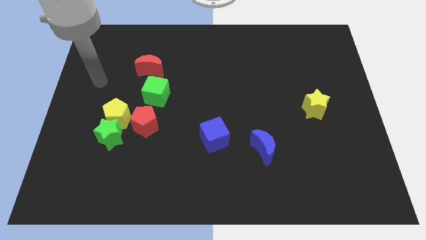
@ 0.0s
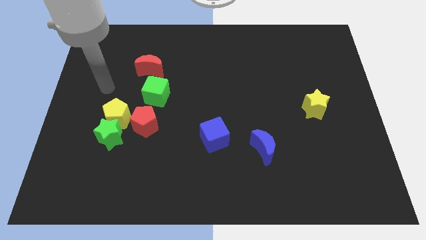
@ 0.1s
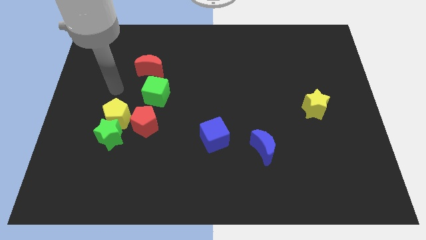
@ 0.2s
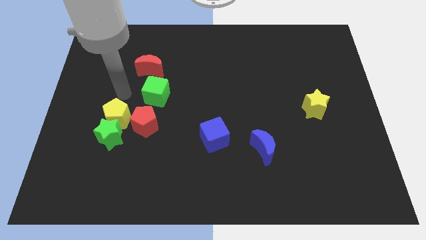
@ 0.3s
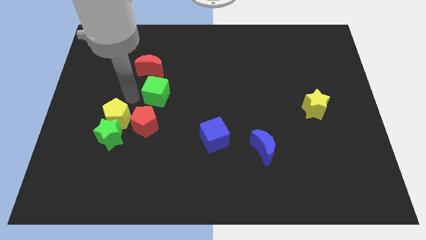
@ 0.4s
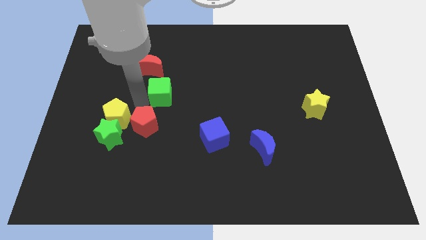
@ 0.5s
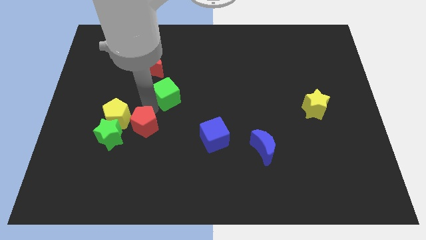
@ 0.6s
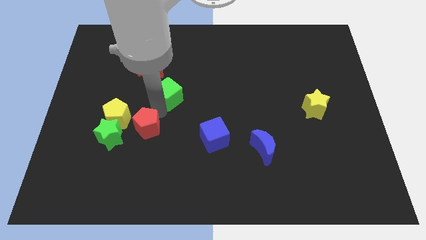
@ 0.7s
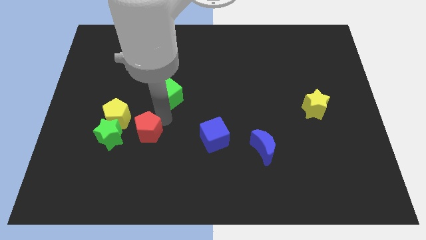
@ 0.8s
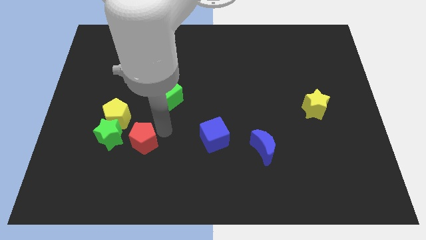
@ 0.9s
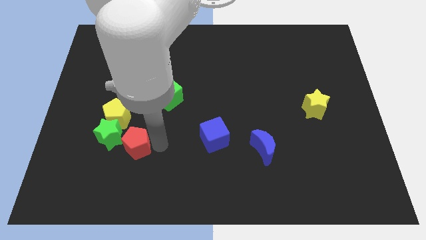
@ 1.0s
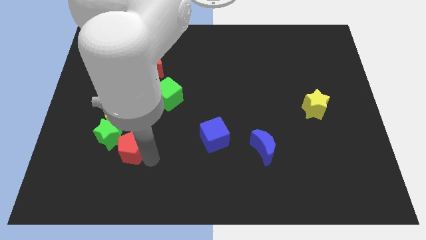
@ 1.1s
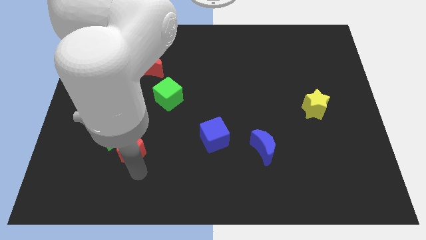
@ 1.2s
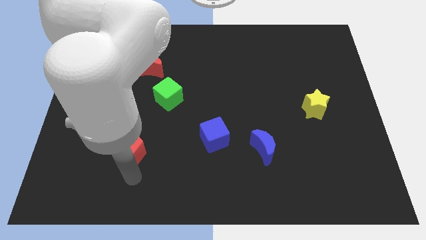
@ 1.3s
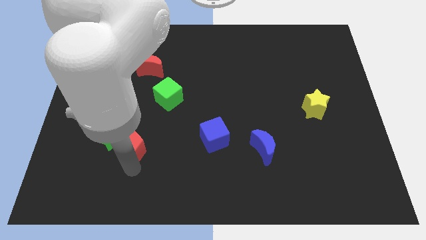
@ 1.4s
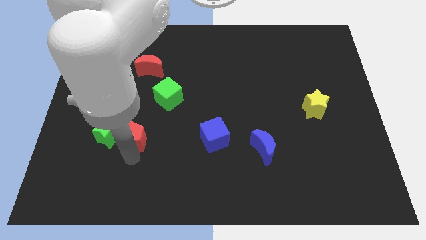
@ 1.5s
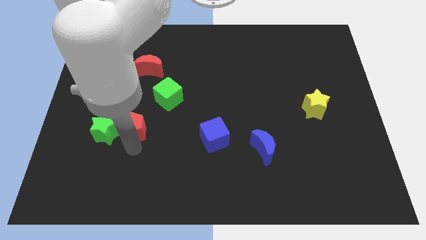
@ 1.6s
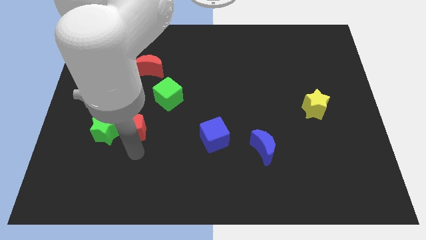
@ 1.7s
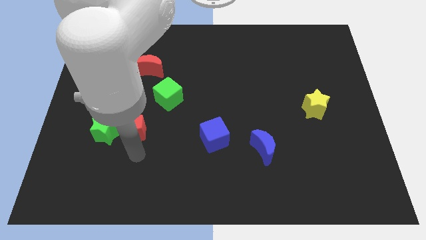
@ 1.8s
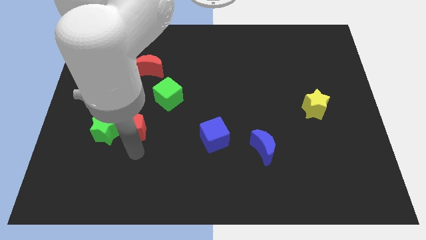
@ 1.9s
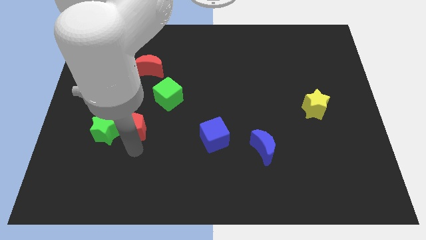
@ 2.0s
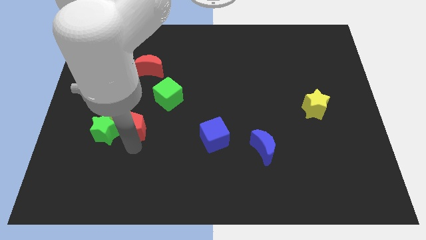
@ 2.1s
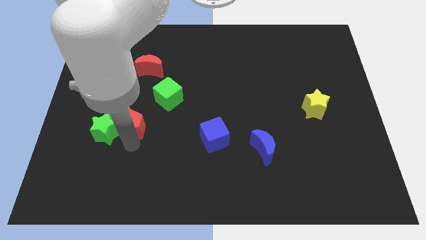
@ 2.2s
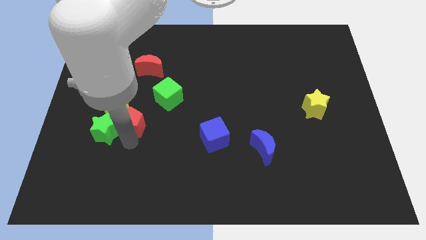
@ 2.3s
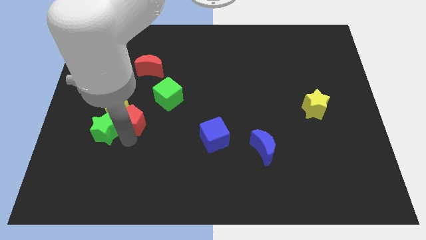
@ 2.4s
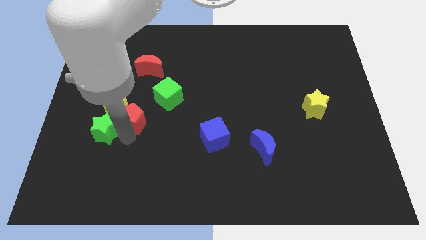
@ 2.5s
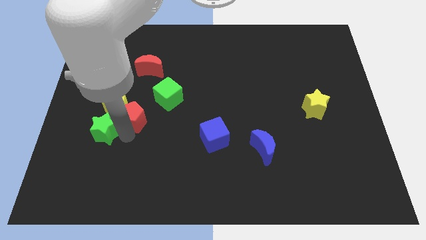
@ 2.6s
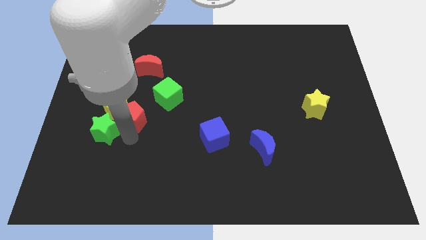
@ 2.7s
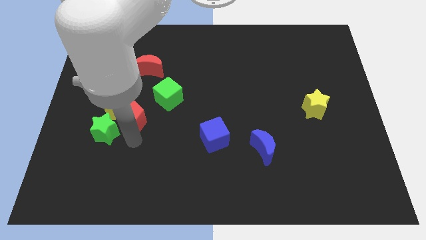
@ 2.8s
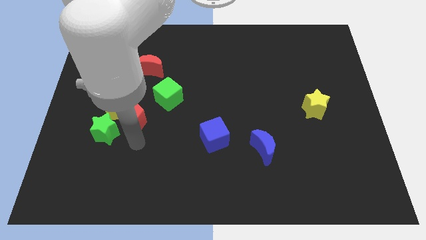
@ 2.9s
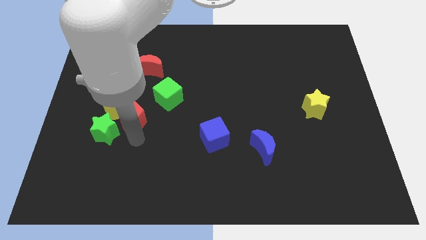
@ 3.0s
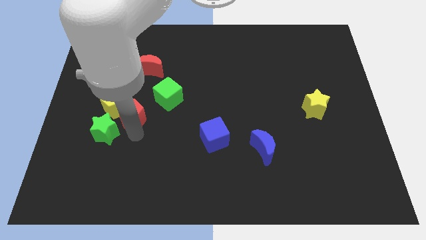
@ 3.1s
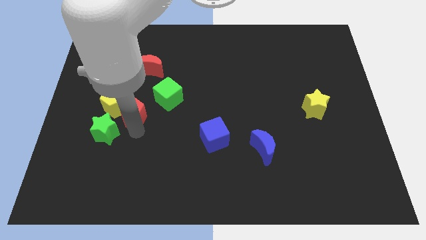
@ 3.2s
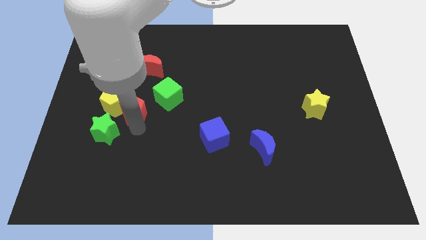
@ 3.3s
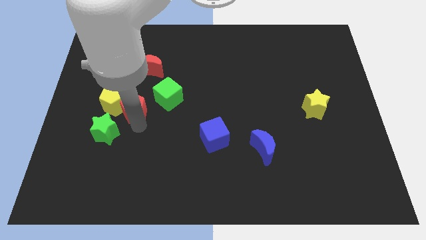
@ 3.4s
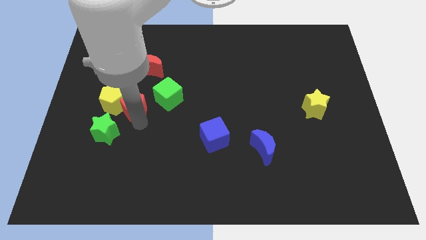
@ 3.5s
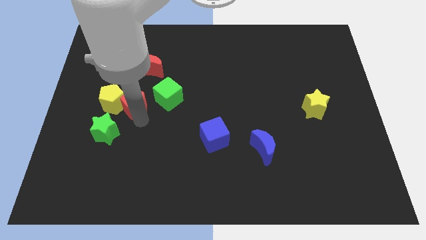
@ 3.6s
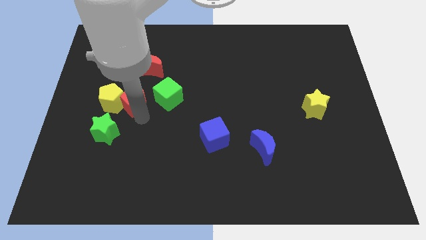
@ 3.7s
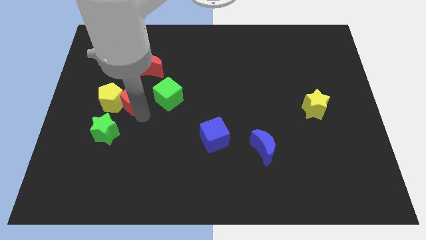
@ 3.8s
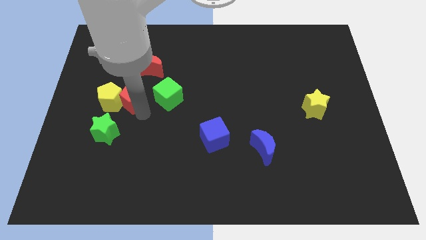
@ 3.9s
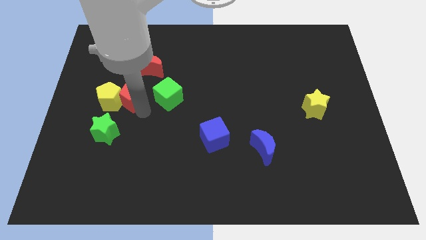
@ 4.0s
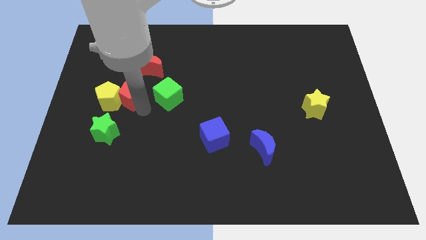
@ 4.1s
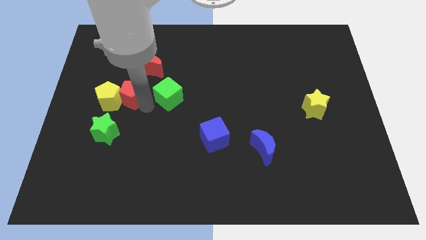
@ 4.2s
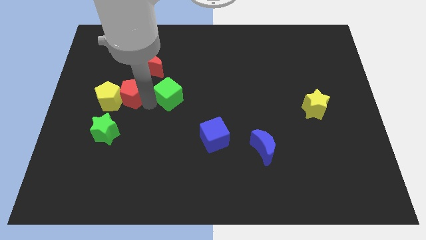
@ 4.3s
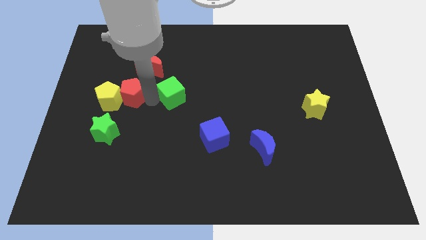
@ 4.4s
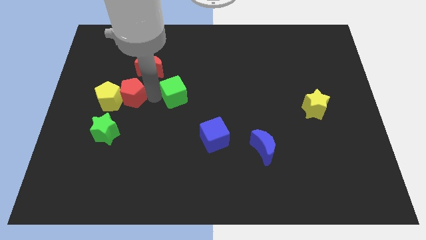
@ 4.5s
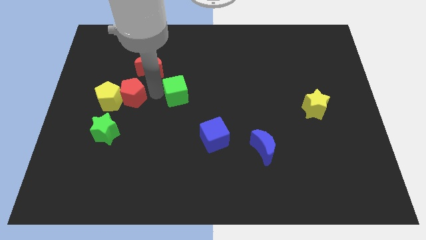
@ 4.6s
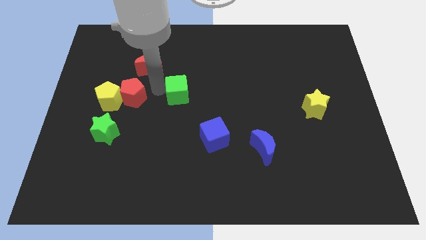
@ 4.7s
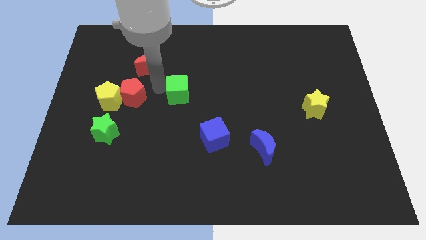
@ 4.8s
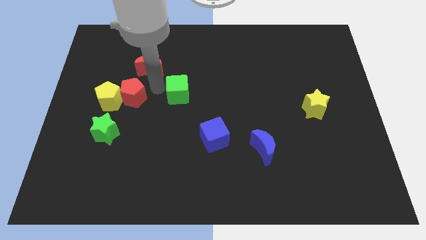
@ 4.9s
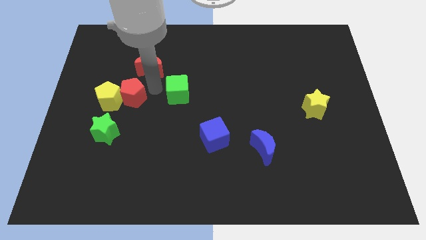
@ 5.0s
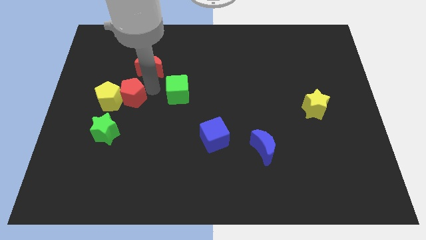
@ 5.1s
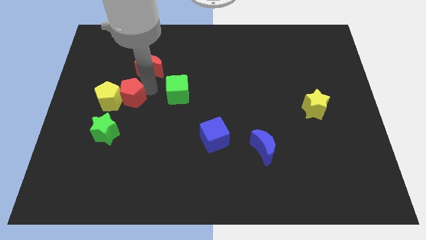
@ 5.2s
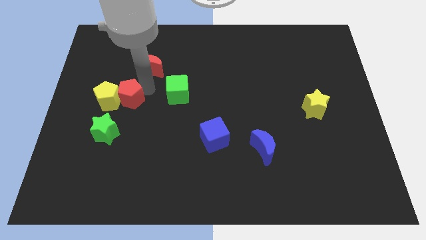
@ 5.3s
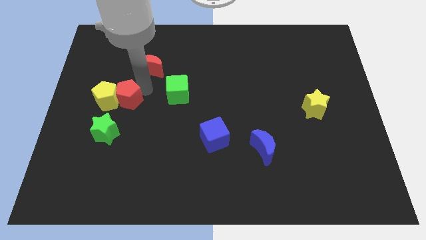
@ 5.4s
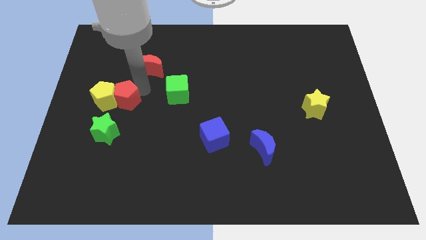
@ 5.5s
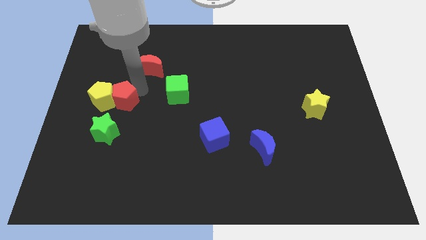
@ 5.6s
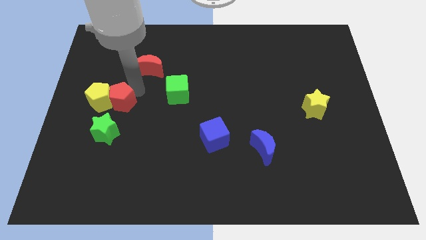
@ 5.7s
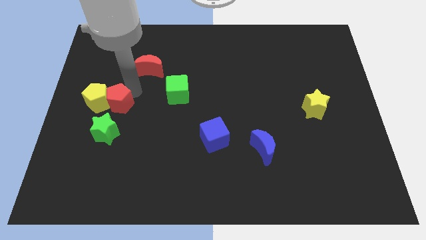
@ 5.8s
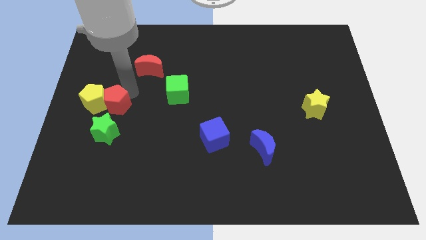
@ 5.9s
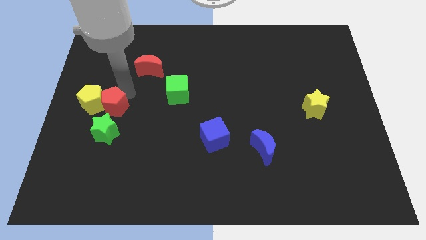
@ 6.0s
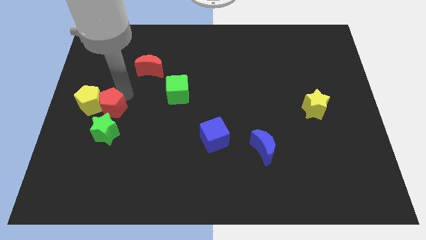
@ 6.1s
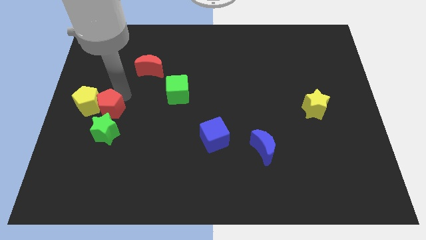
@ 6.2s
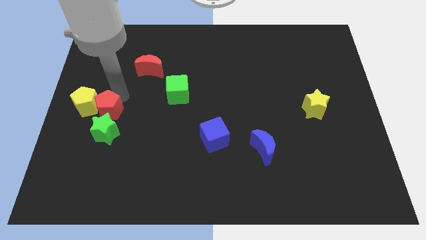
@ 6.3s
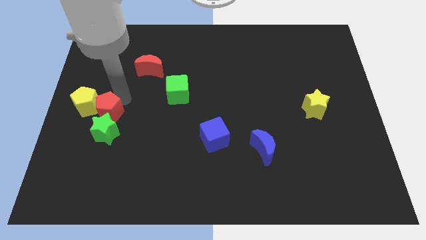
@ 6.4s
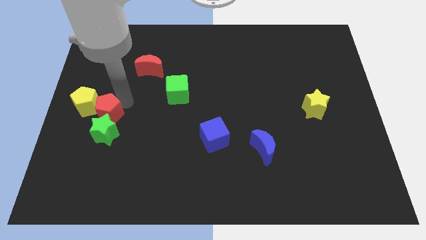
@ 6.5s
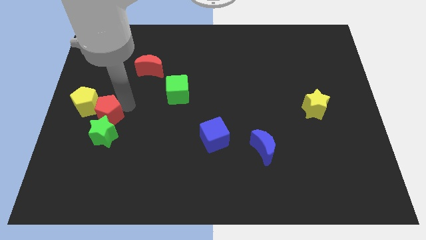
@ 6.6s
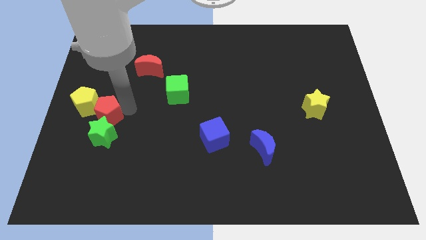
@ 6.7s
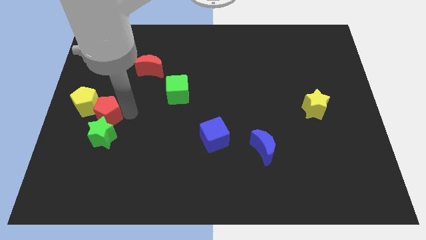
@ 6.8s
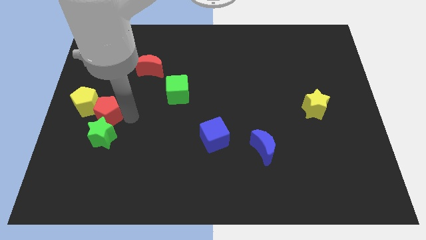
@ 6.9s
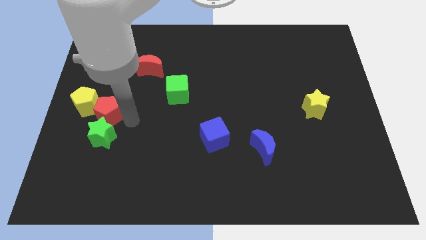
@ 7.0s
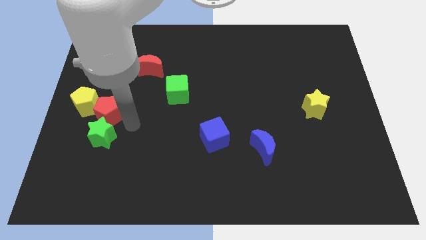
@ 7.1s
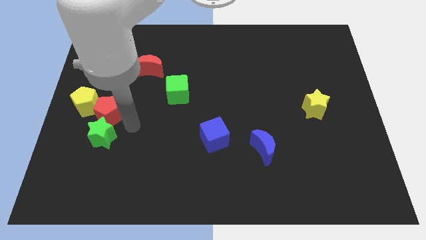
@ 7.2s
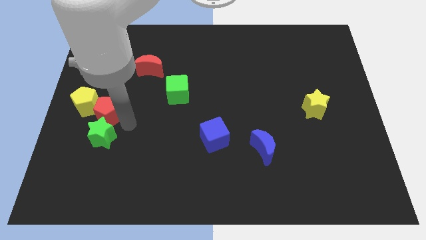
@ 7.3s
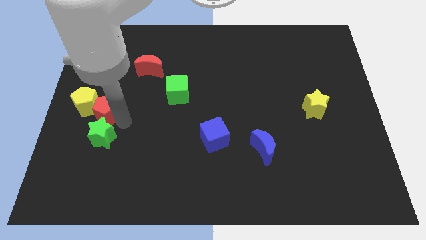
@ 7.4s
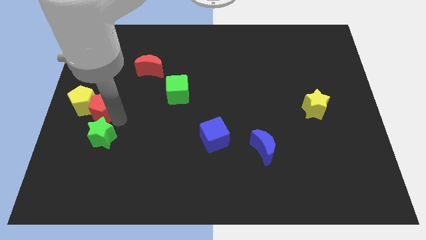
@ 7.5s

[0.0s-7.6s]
push the red pentagon to the center left
